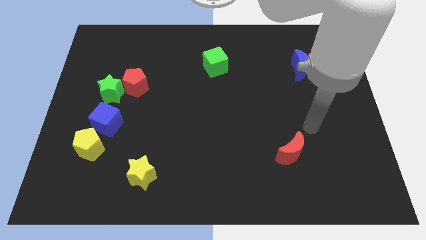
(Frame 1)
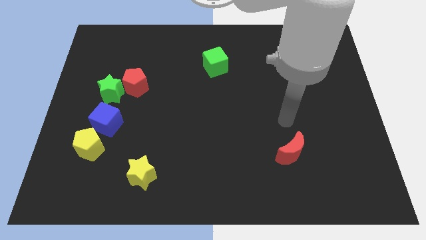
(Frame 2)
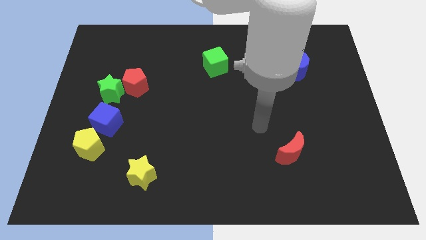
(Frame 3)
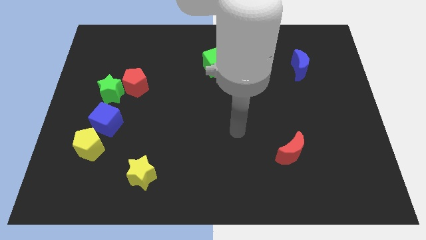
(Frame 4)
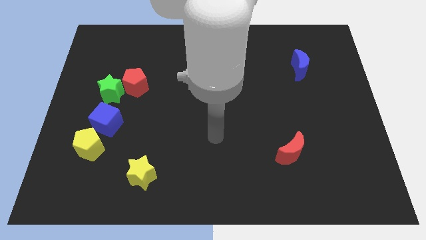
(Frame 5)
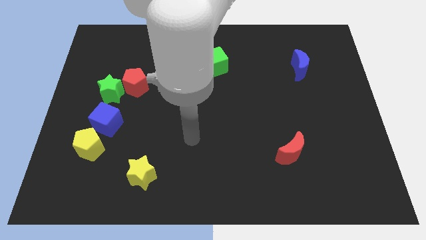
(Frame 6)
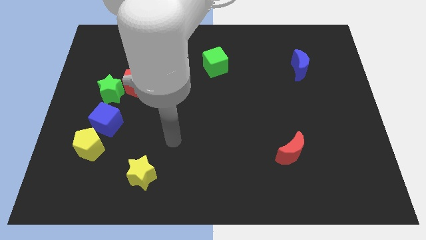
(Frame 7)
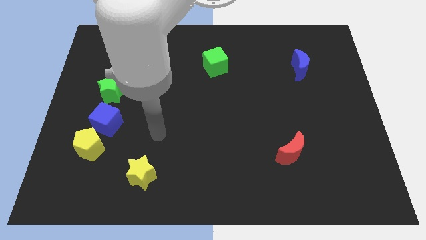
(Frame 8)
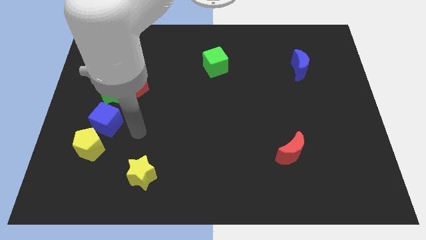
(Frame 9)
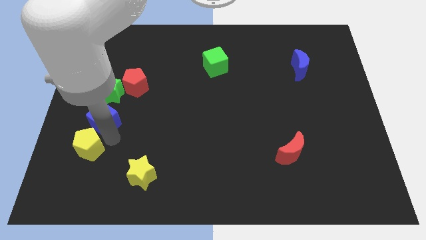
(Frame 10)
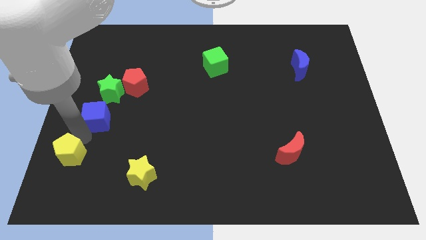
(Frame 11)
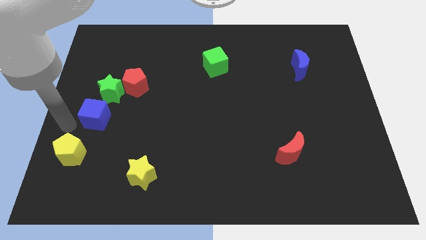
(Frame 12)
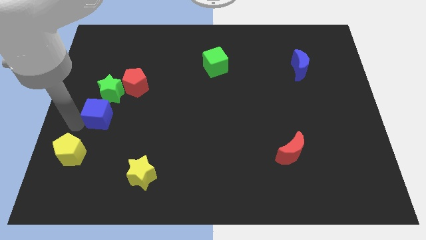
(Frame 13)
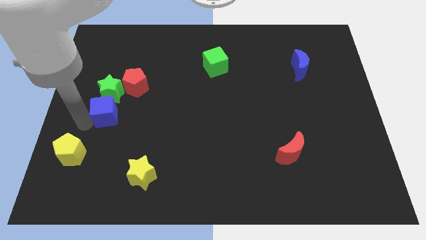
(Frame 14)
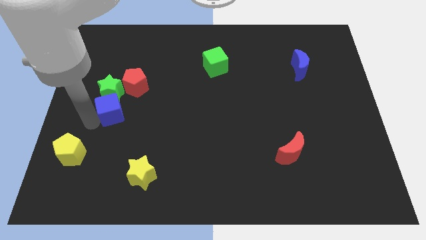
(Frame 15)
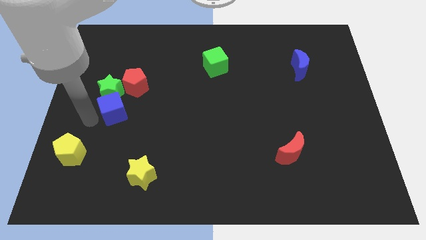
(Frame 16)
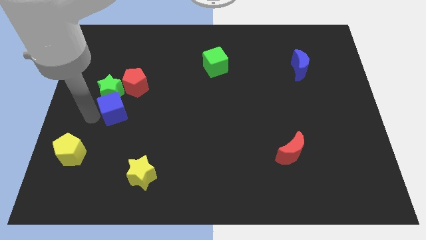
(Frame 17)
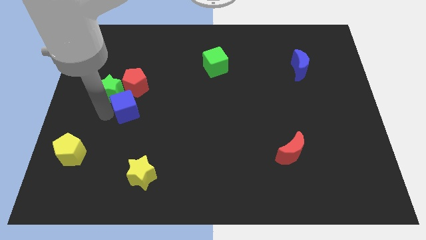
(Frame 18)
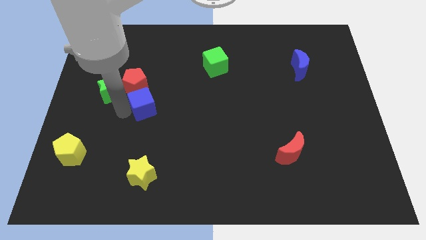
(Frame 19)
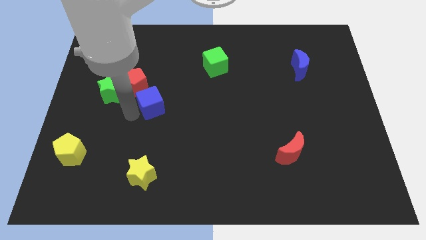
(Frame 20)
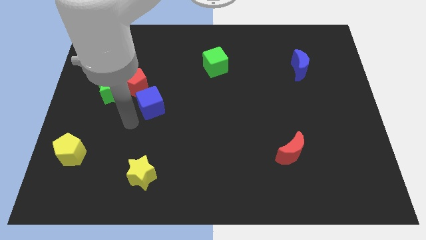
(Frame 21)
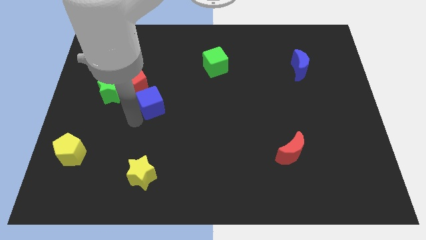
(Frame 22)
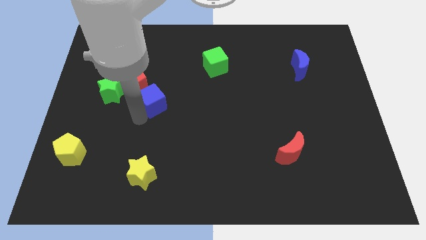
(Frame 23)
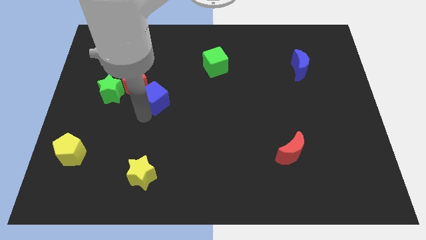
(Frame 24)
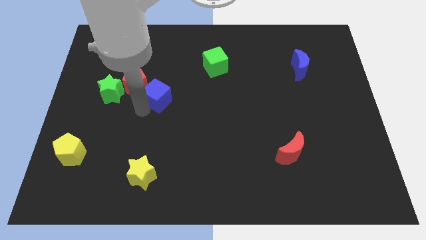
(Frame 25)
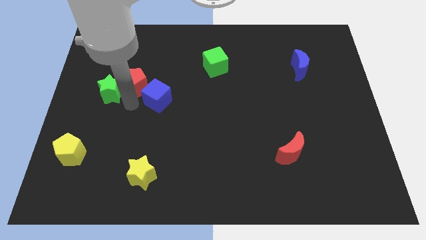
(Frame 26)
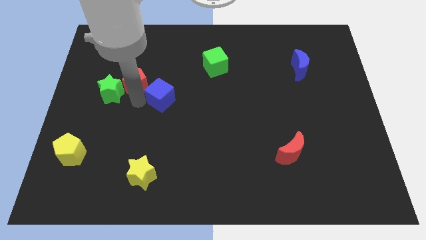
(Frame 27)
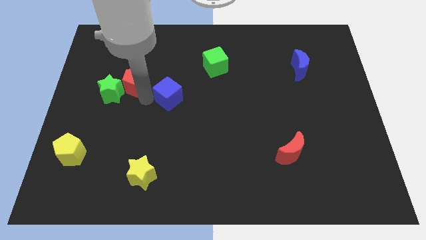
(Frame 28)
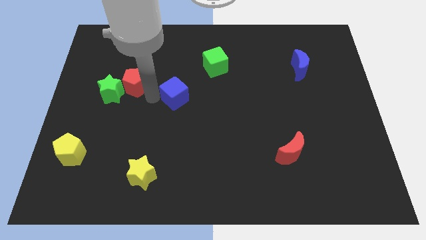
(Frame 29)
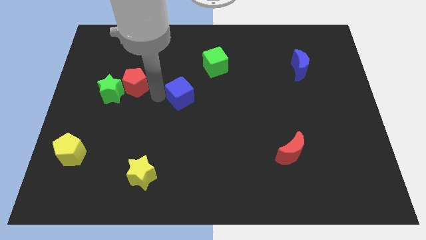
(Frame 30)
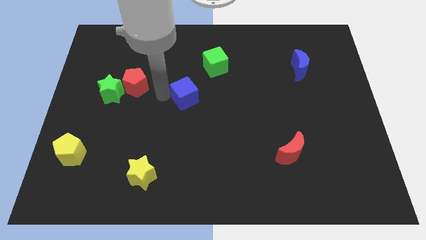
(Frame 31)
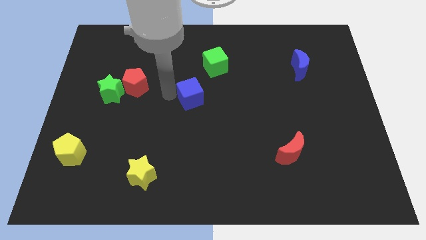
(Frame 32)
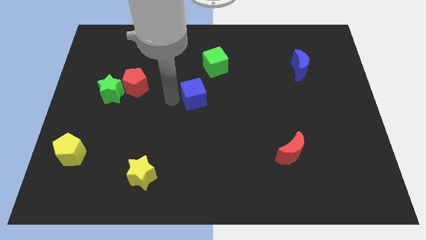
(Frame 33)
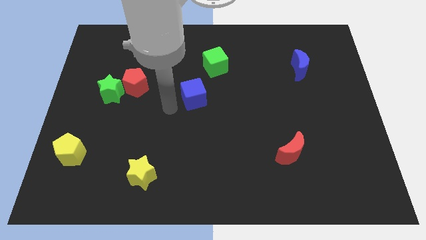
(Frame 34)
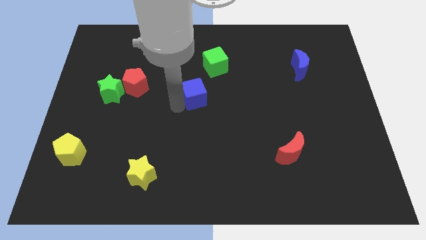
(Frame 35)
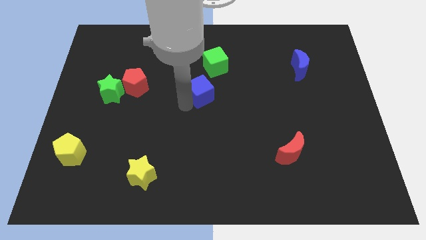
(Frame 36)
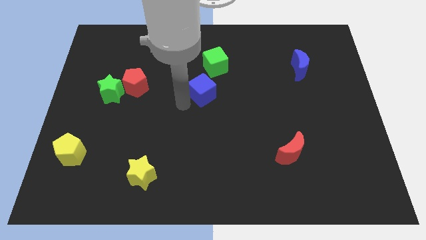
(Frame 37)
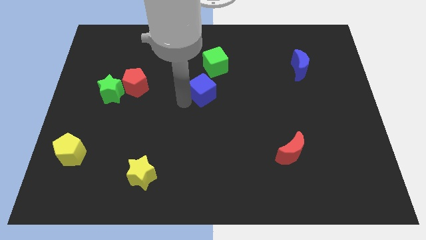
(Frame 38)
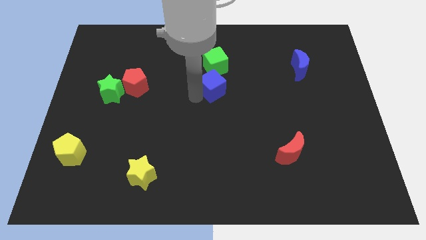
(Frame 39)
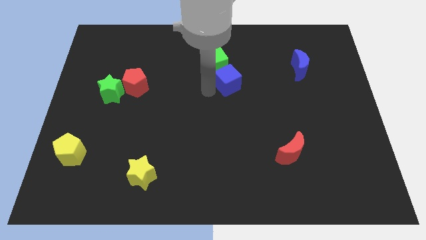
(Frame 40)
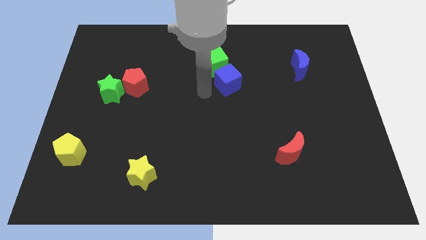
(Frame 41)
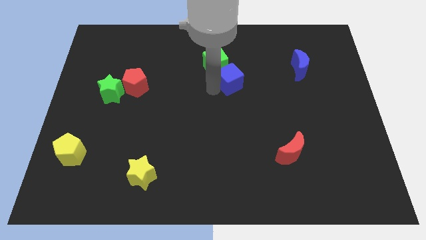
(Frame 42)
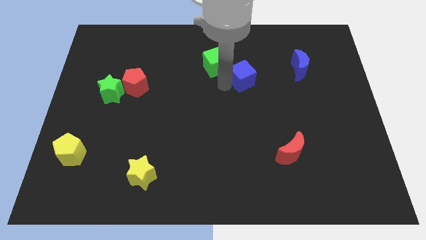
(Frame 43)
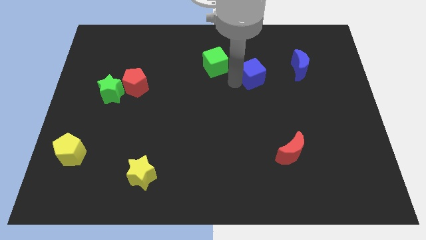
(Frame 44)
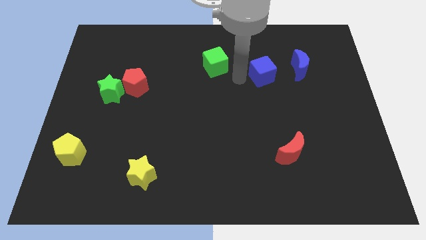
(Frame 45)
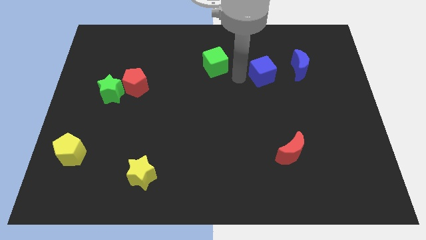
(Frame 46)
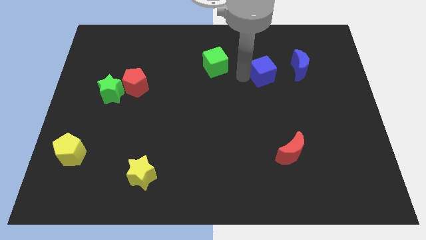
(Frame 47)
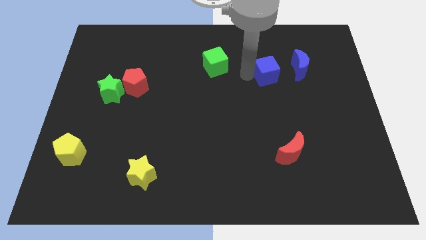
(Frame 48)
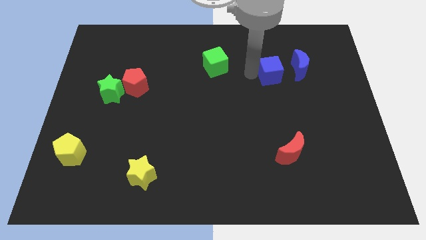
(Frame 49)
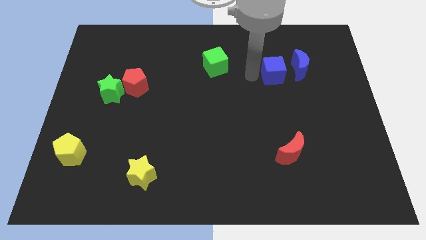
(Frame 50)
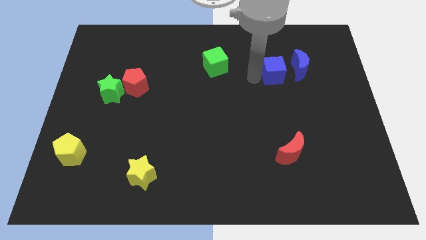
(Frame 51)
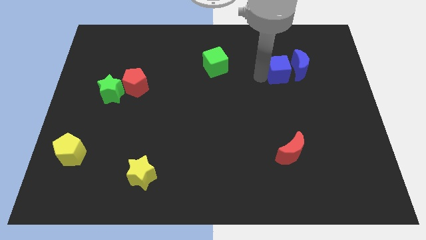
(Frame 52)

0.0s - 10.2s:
put the blue cube close to the blue moon

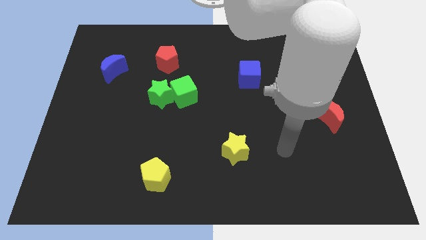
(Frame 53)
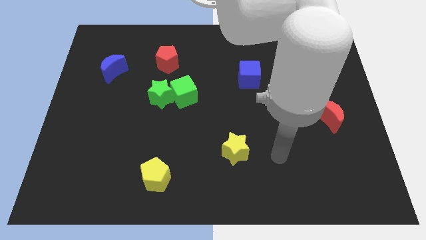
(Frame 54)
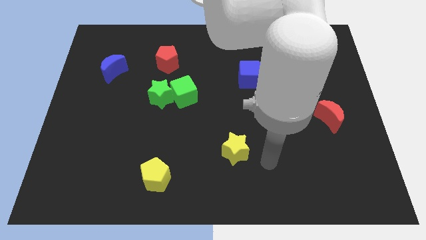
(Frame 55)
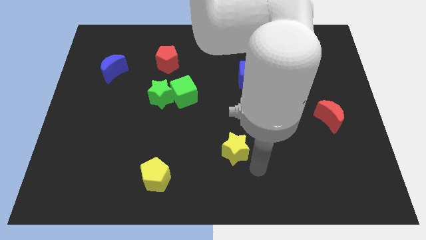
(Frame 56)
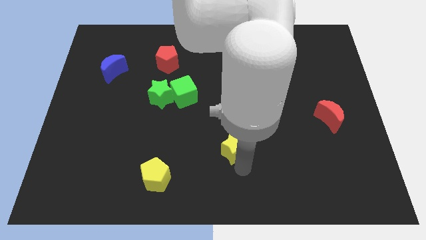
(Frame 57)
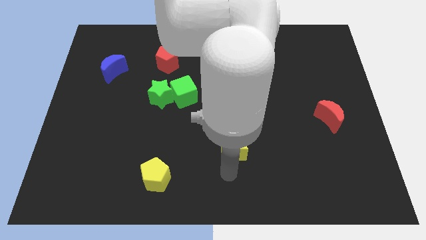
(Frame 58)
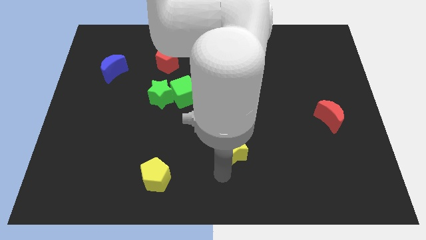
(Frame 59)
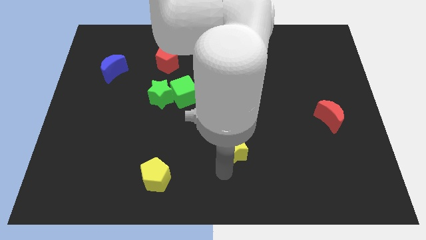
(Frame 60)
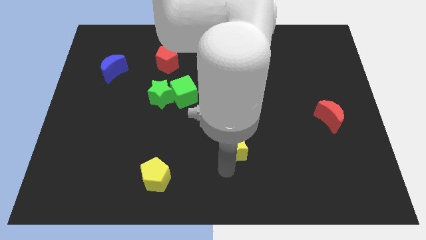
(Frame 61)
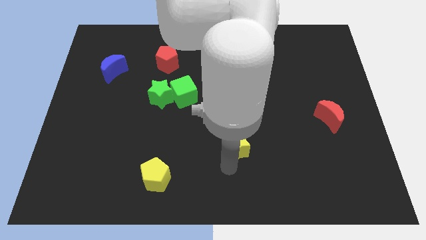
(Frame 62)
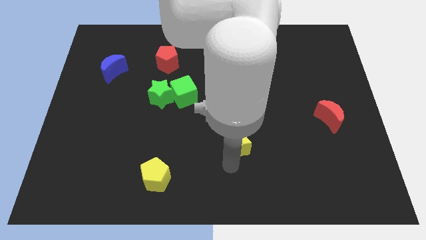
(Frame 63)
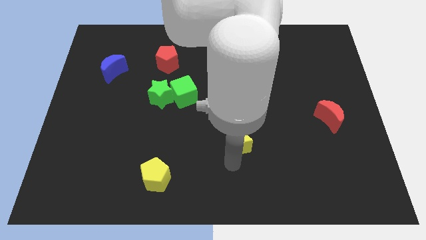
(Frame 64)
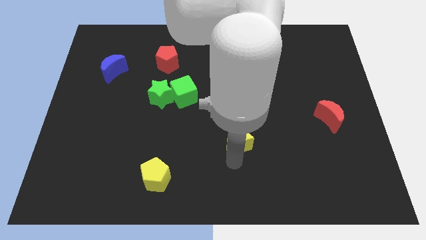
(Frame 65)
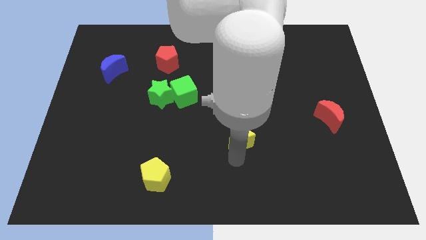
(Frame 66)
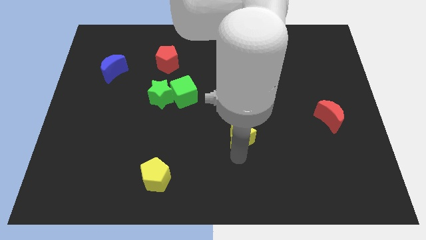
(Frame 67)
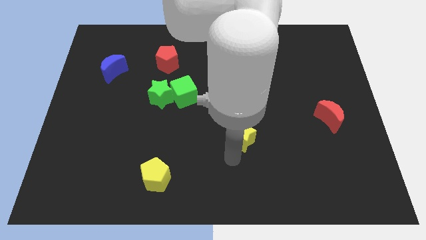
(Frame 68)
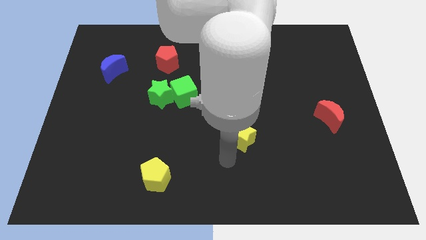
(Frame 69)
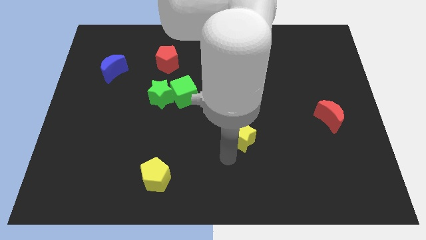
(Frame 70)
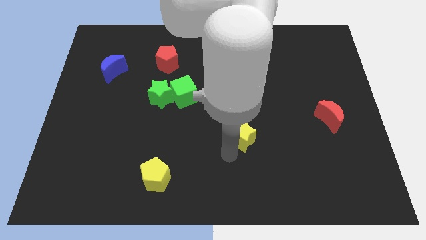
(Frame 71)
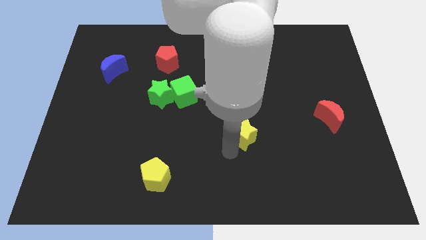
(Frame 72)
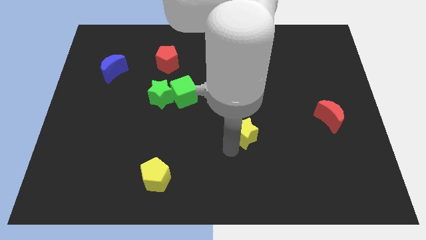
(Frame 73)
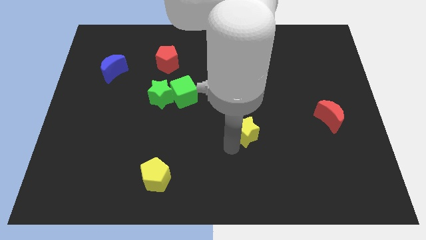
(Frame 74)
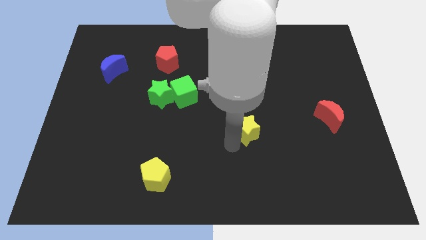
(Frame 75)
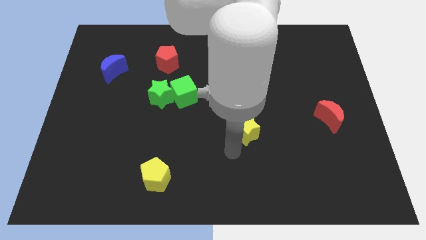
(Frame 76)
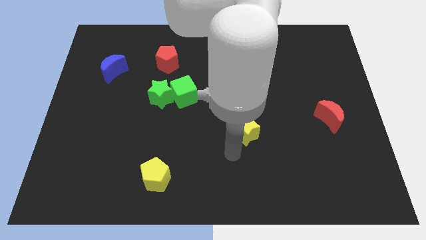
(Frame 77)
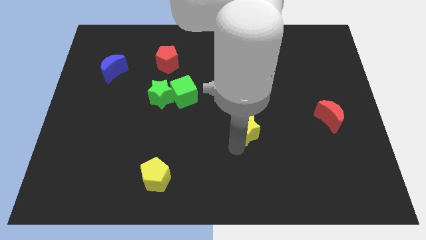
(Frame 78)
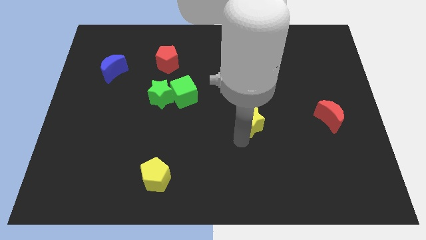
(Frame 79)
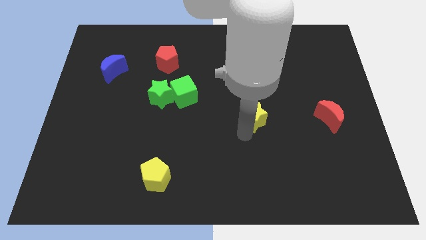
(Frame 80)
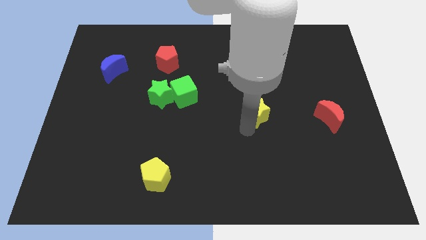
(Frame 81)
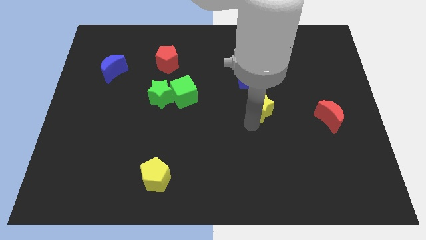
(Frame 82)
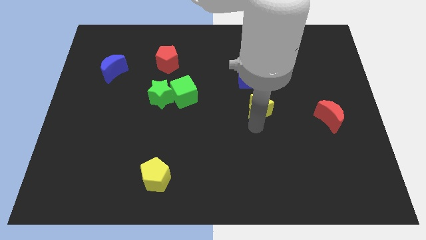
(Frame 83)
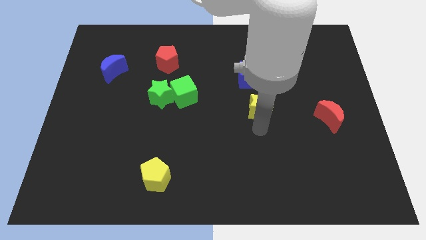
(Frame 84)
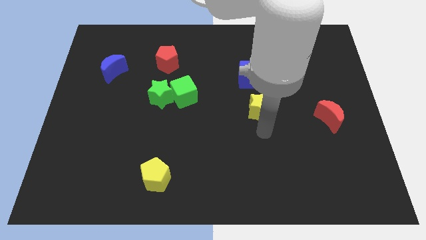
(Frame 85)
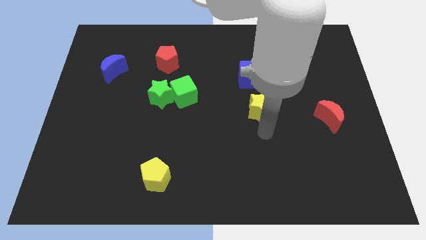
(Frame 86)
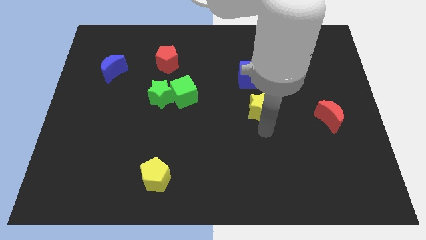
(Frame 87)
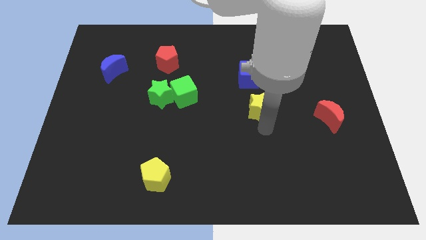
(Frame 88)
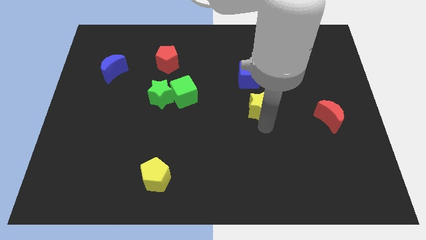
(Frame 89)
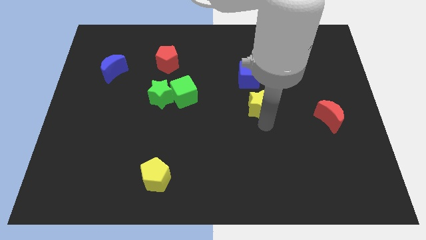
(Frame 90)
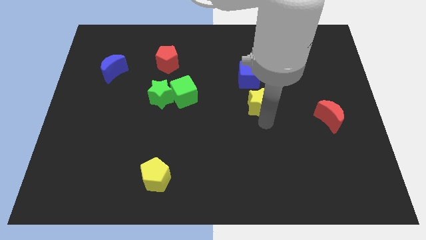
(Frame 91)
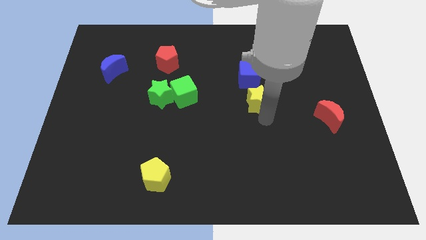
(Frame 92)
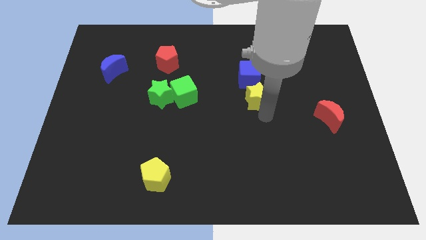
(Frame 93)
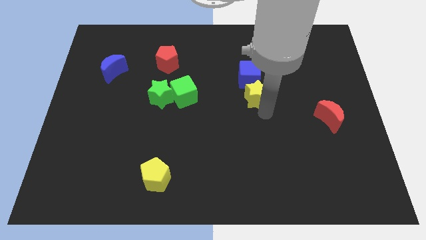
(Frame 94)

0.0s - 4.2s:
slide the yellow star next to the blue cube
